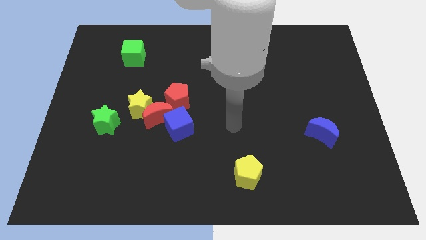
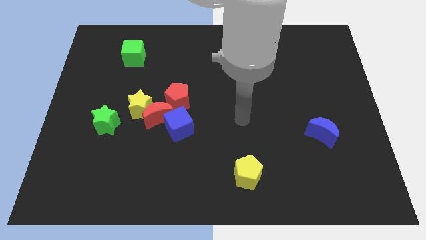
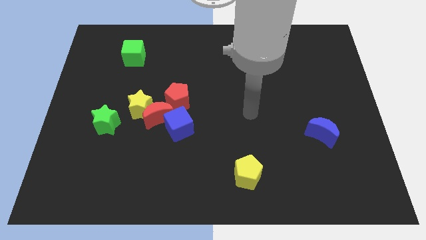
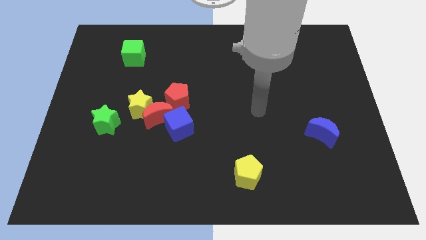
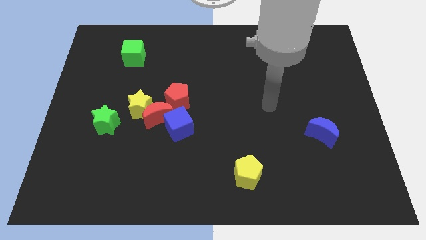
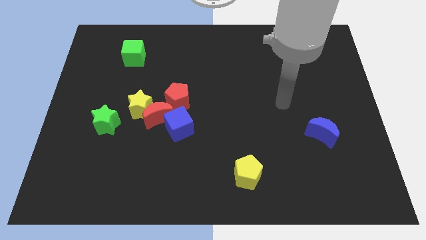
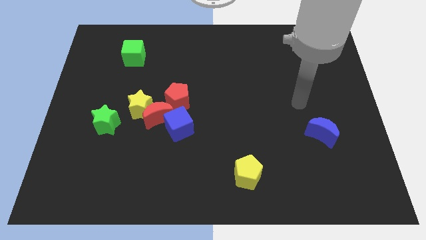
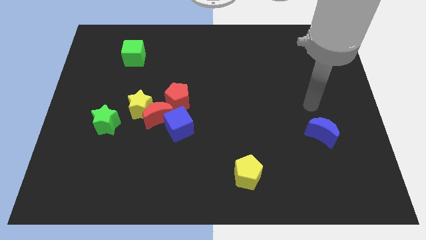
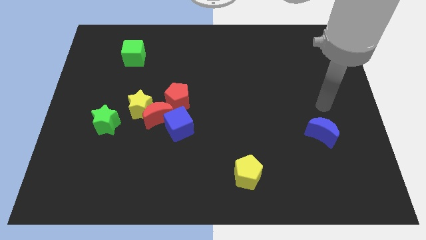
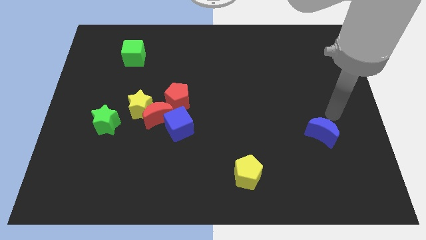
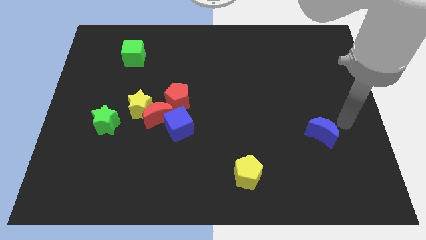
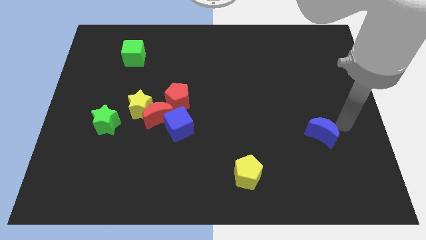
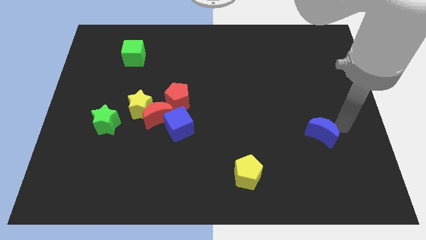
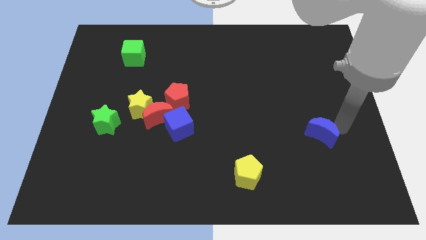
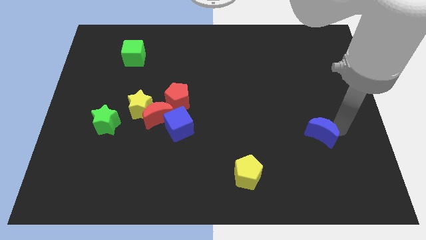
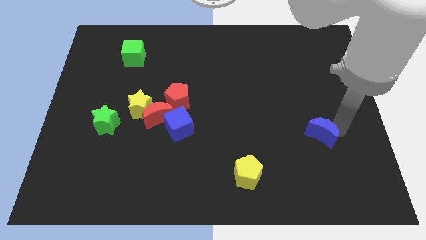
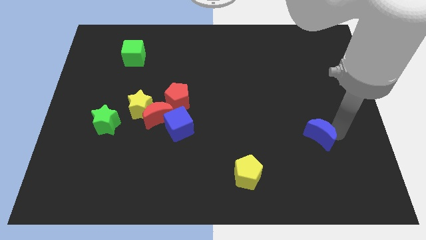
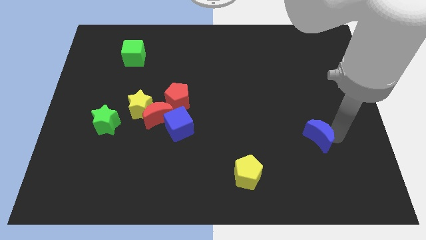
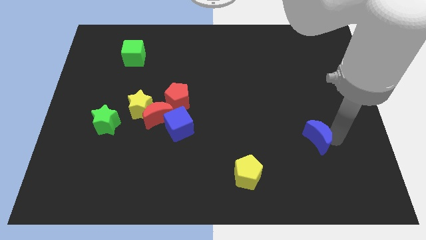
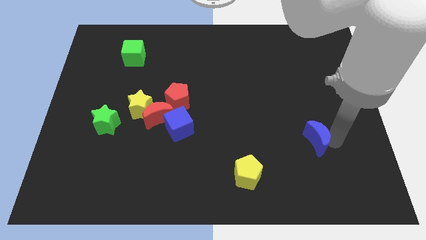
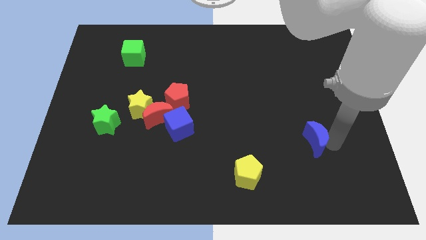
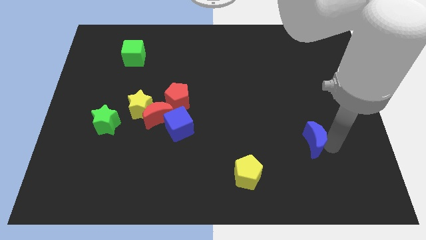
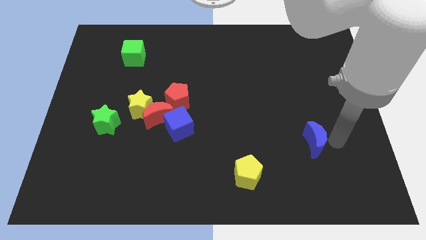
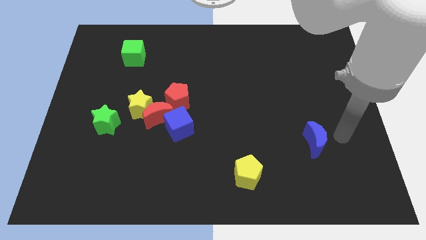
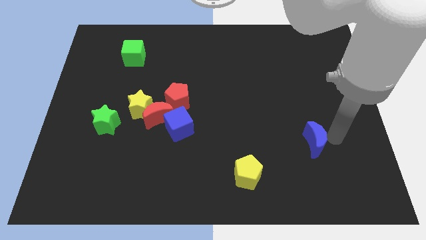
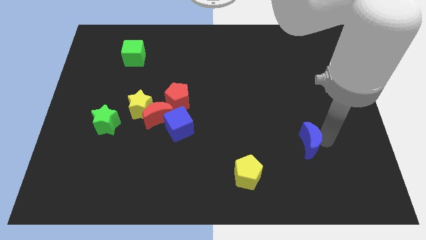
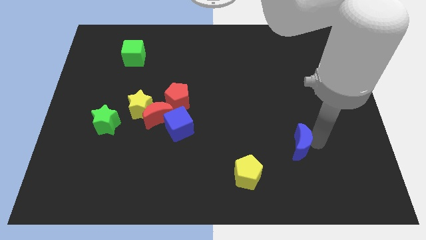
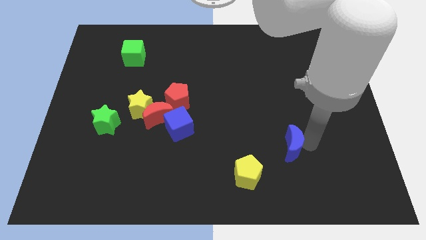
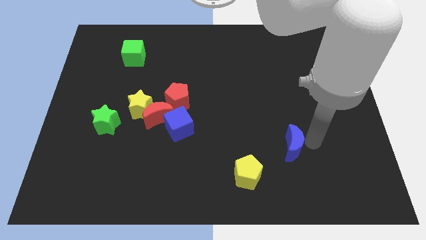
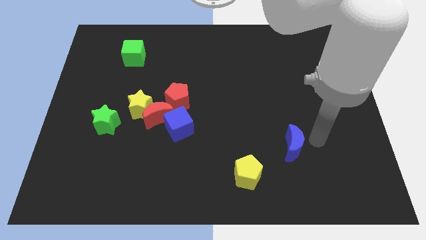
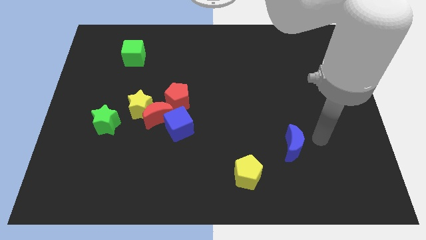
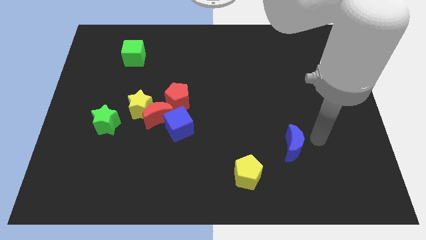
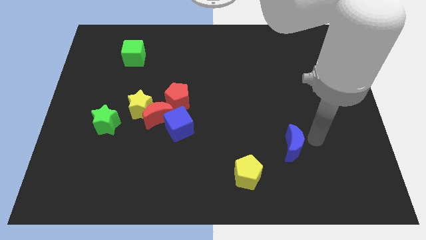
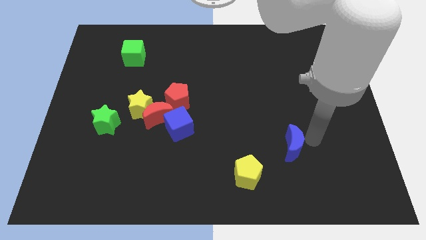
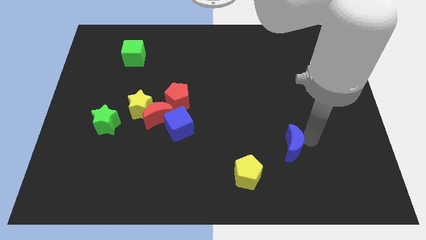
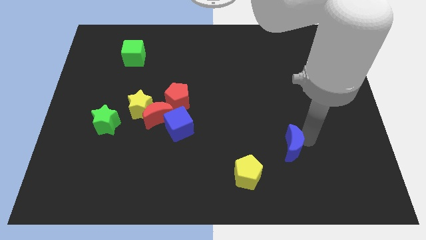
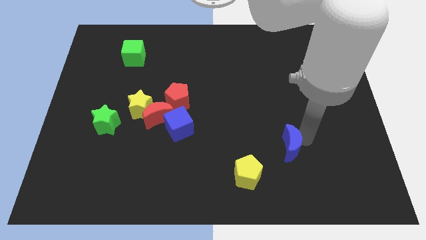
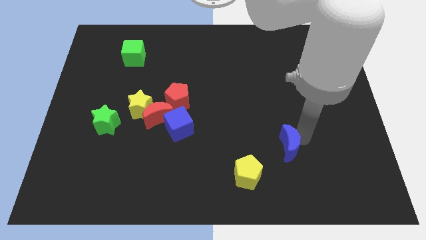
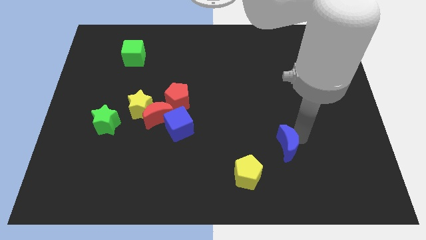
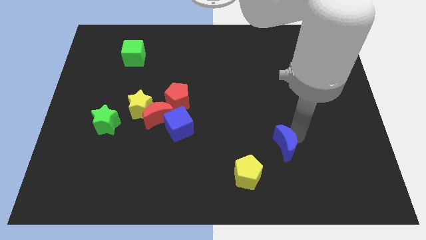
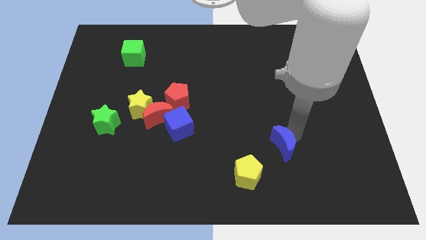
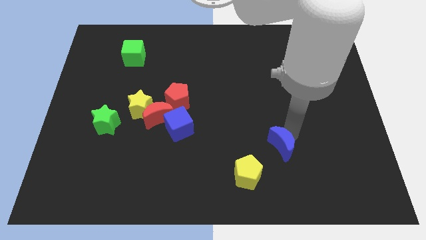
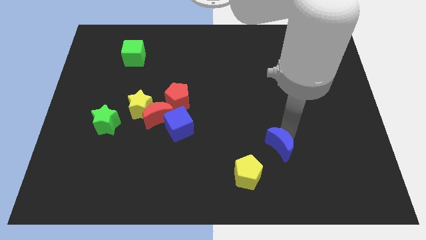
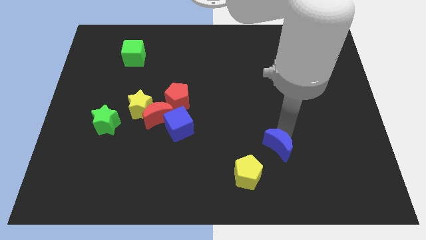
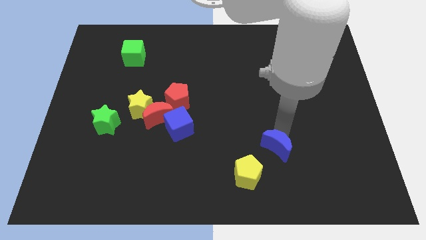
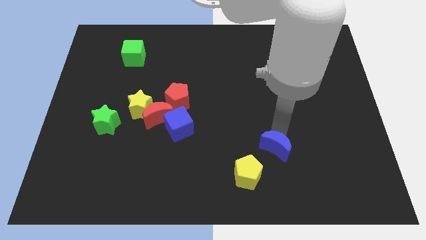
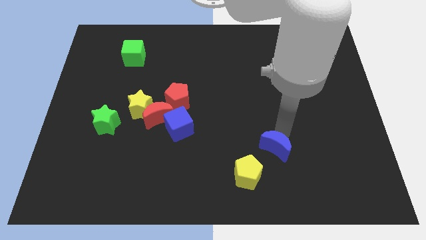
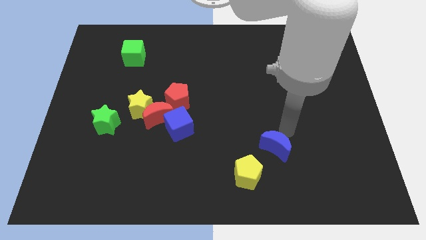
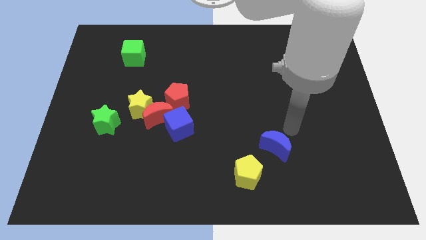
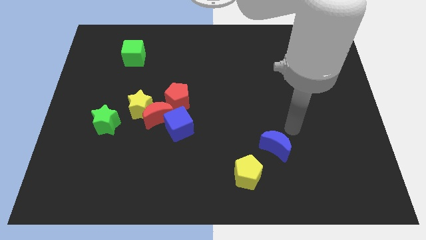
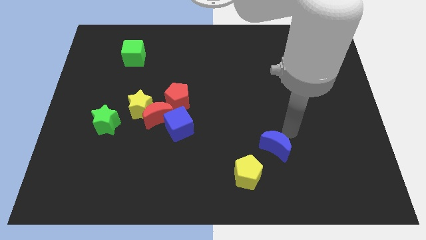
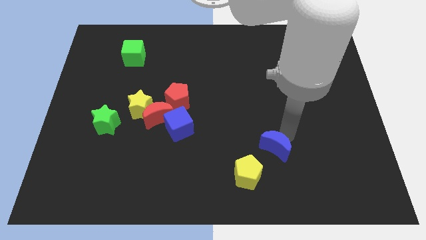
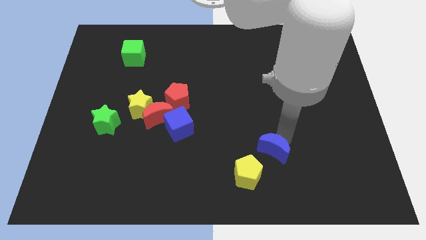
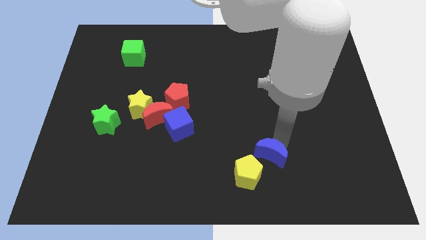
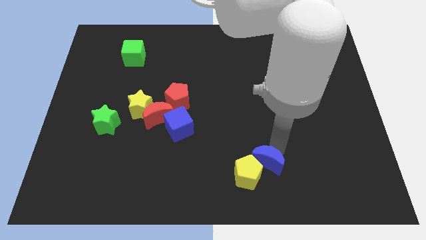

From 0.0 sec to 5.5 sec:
move the blue moon to the yellow pentagon

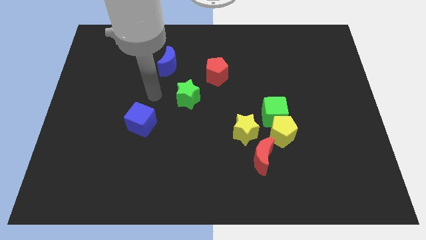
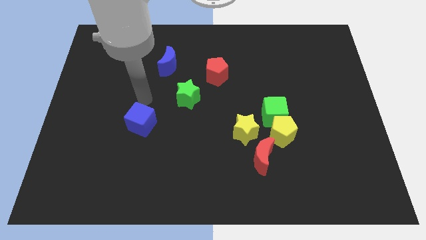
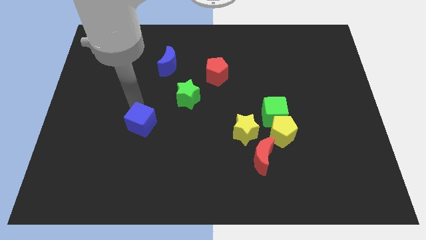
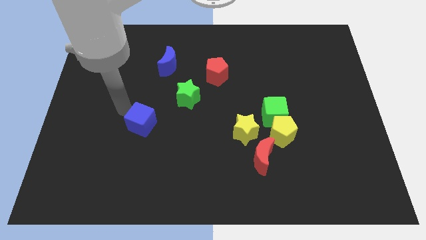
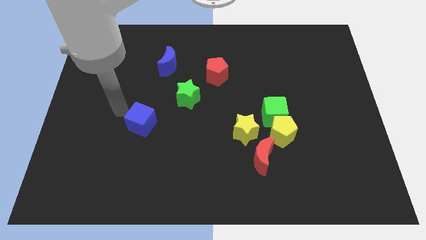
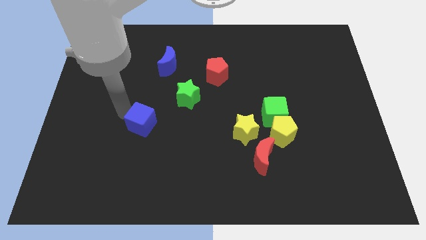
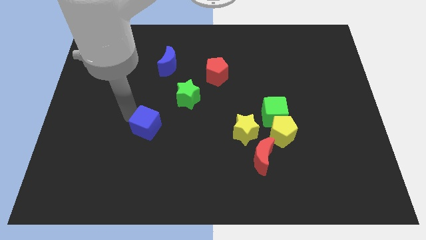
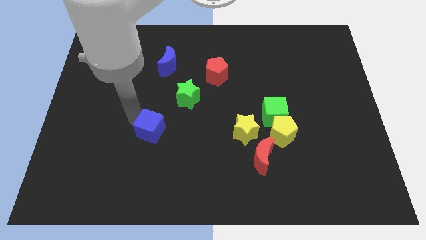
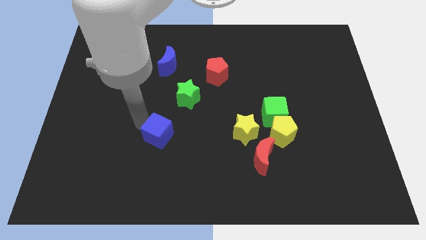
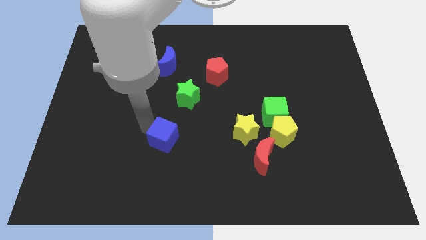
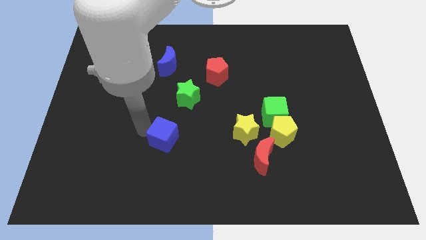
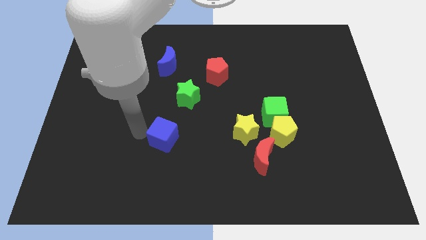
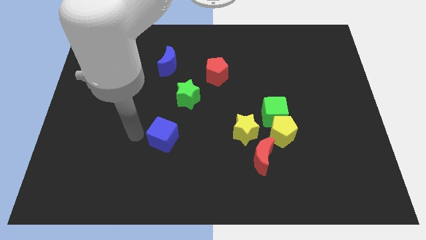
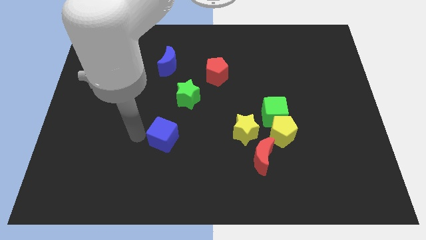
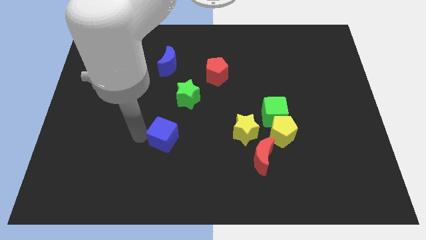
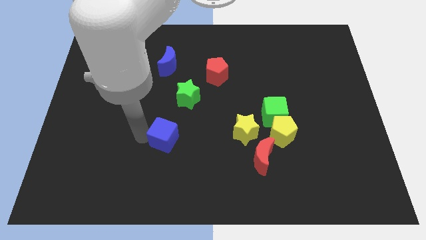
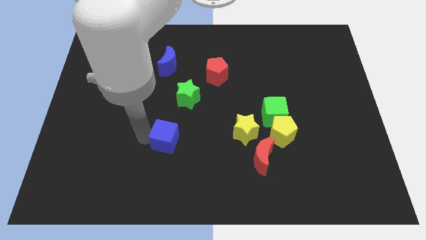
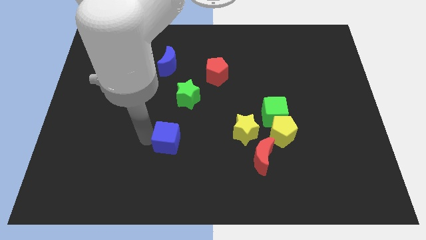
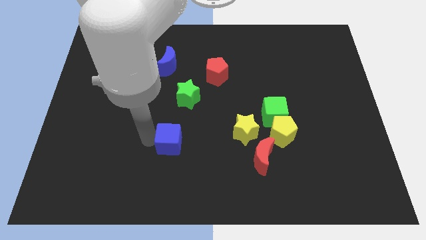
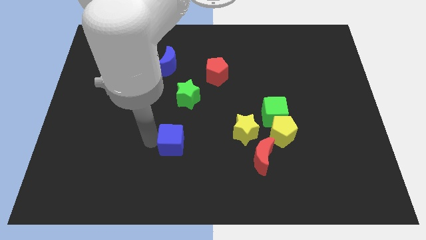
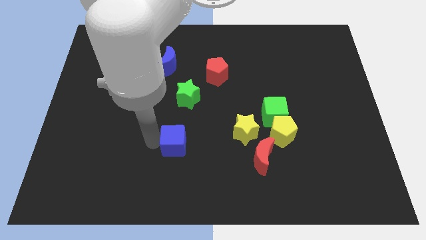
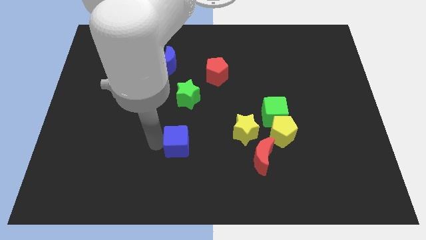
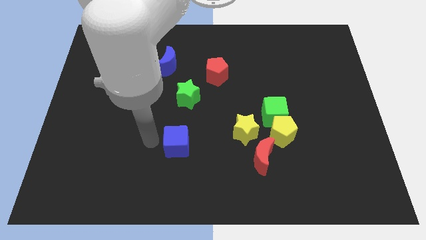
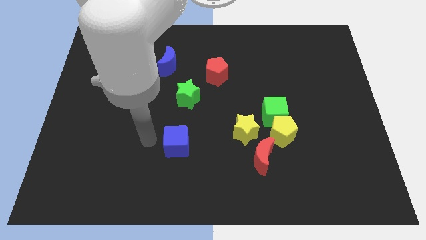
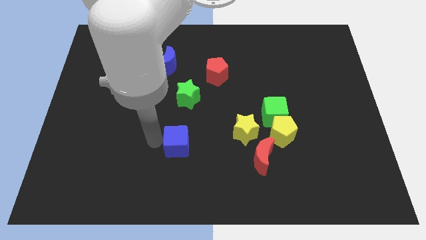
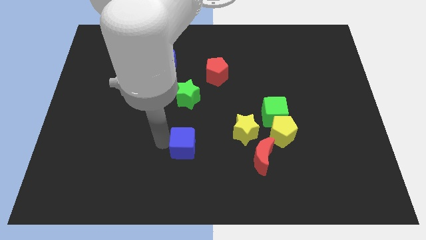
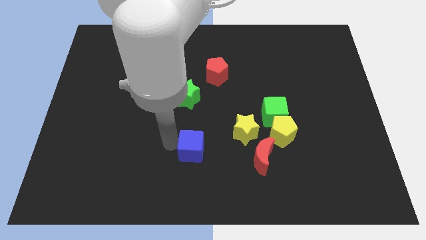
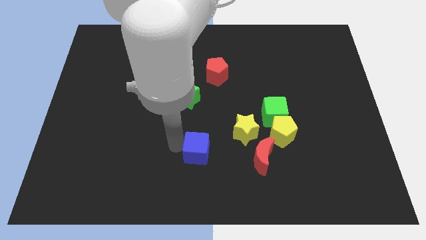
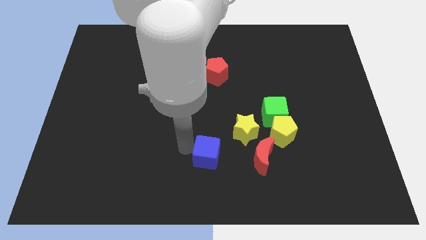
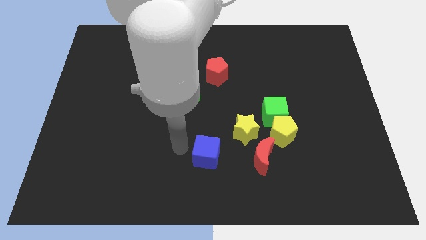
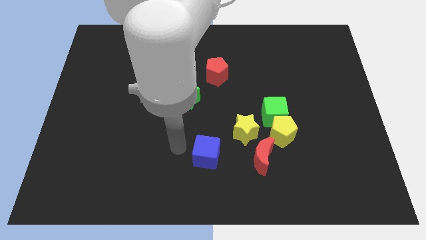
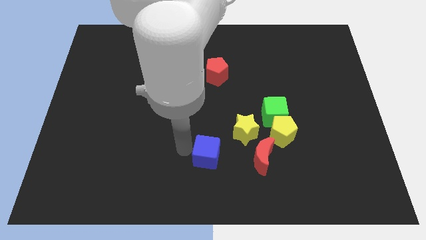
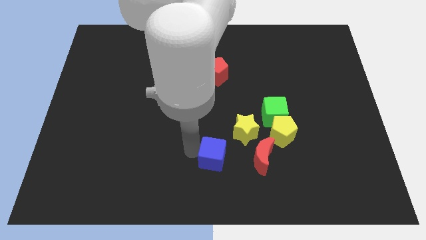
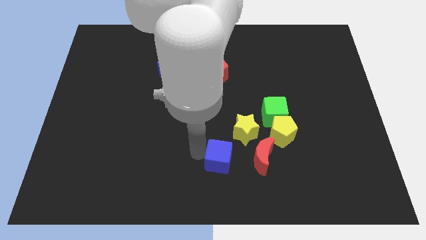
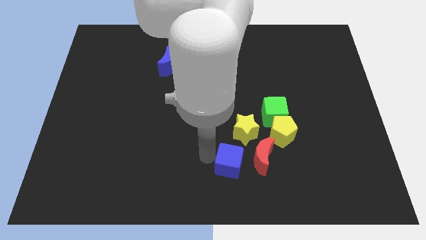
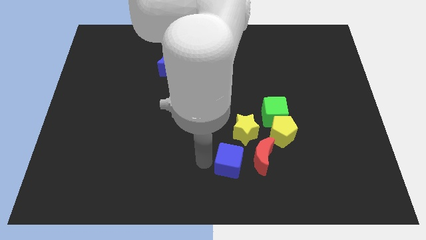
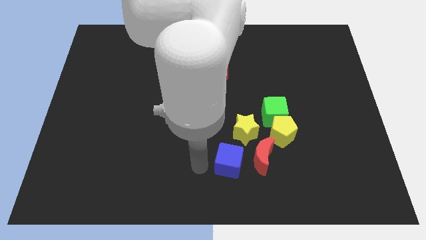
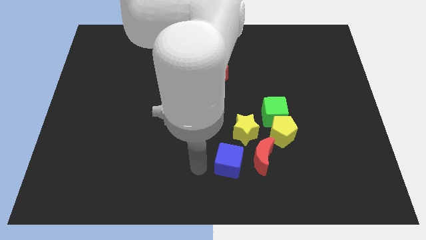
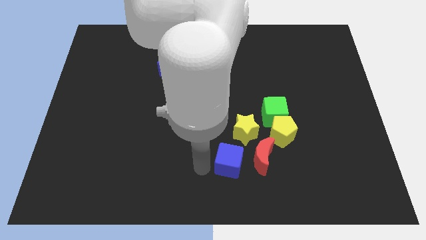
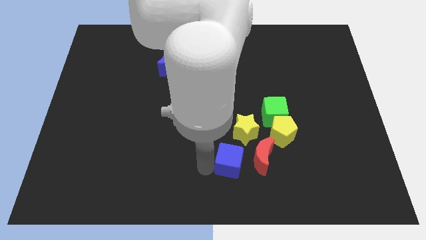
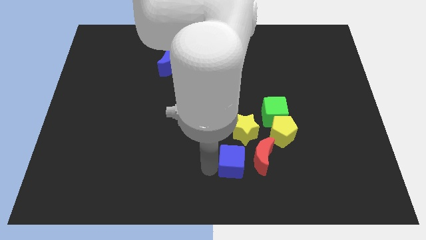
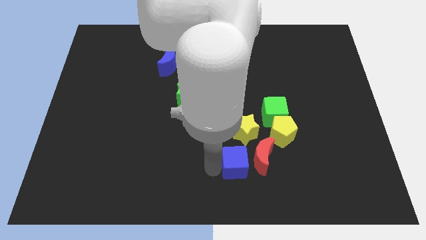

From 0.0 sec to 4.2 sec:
push the blue cube towards the red moon
